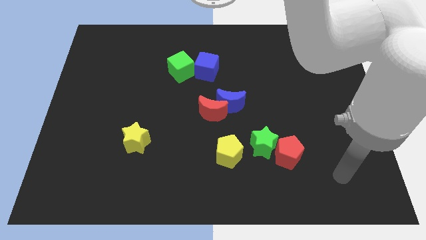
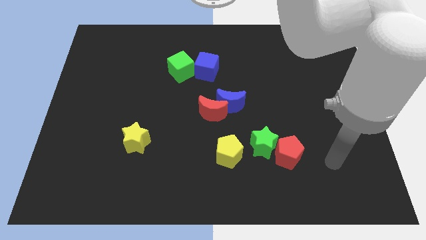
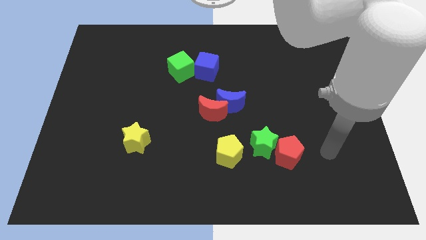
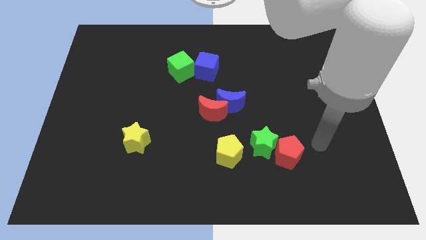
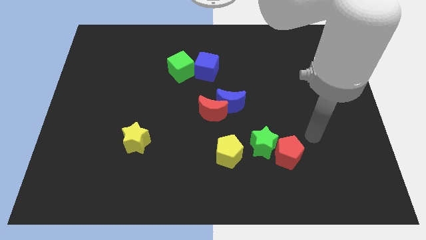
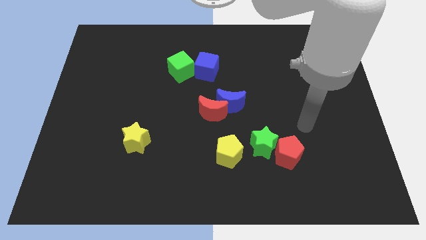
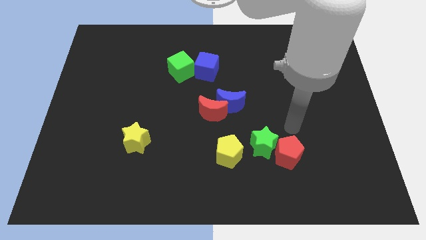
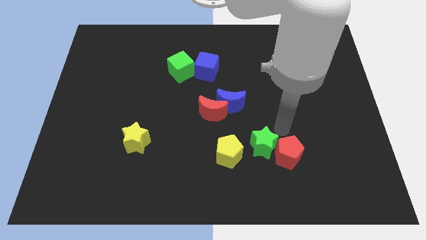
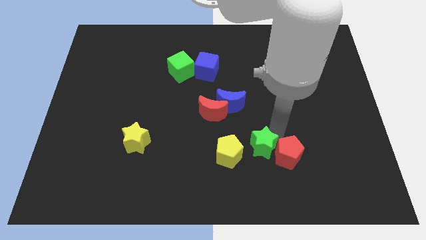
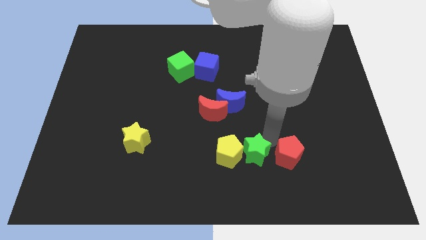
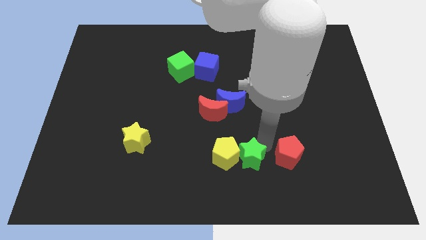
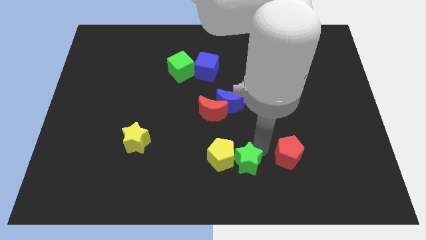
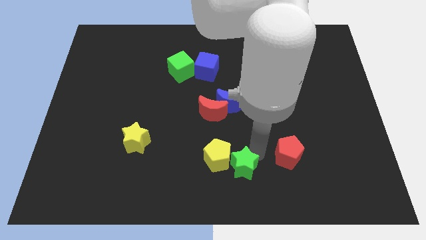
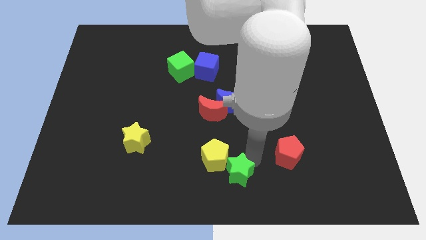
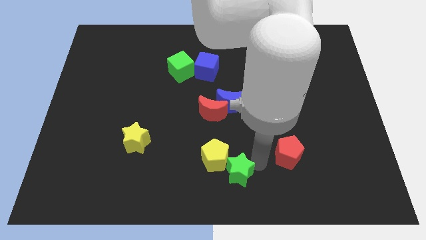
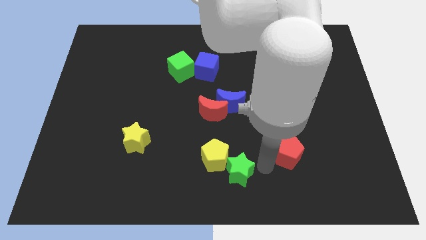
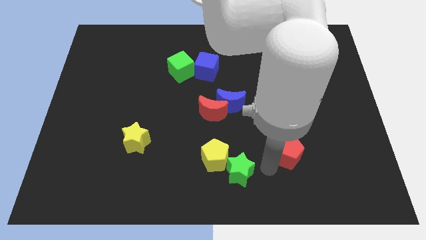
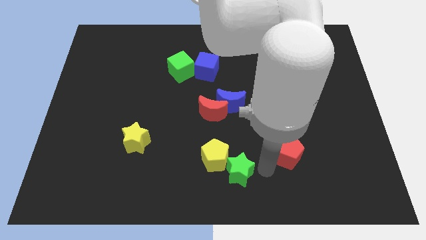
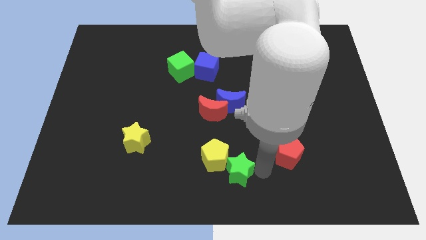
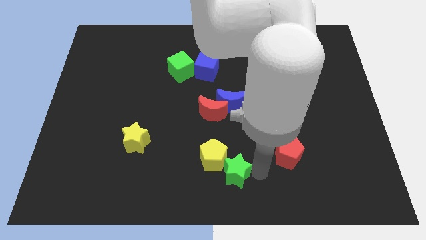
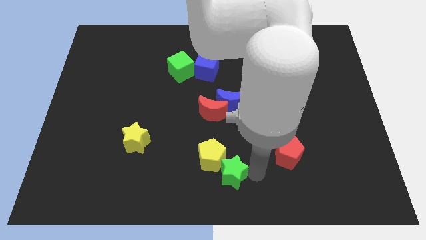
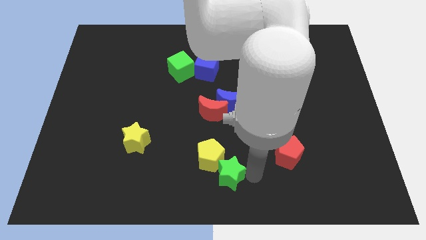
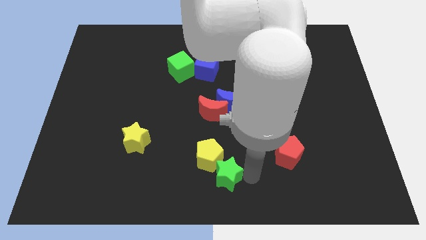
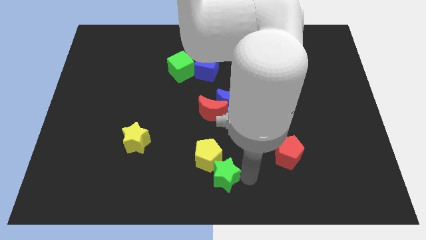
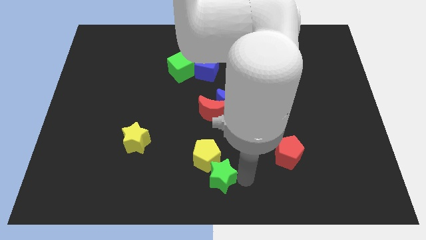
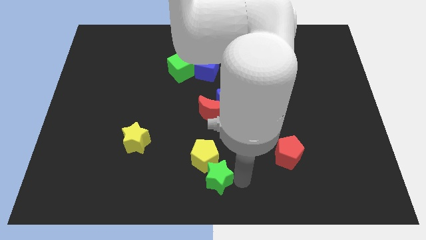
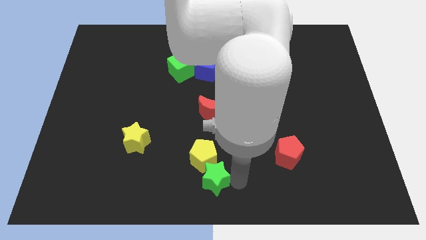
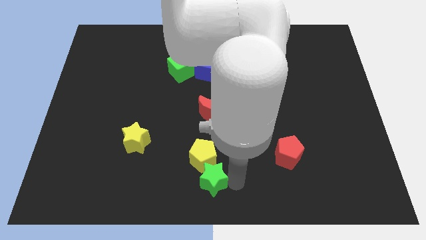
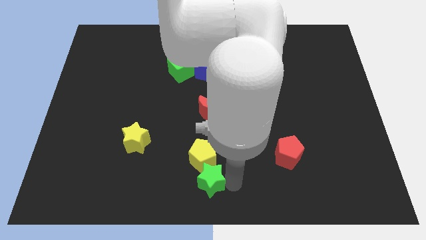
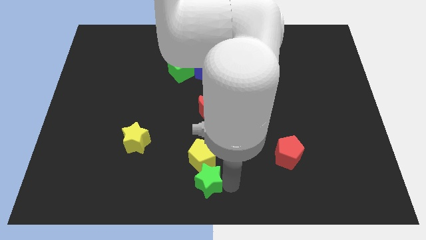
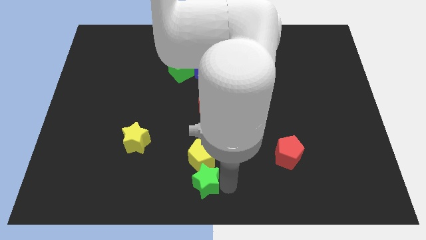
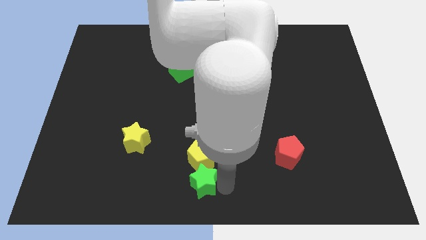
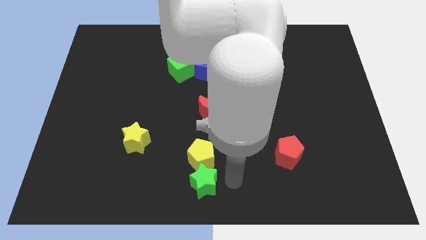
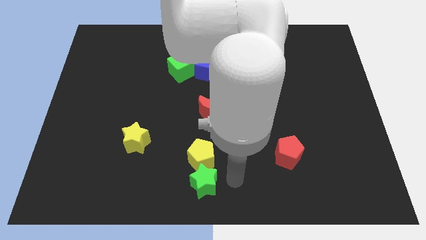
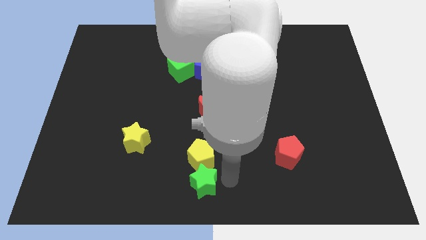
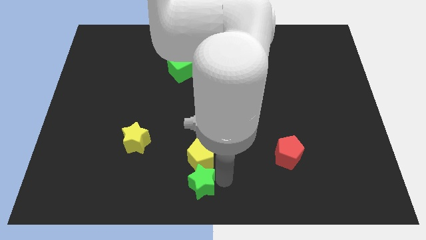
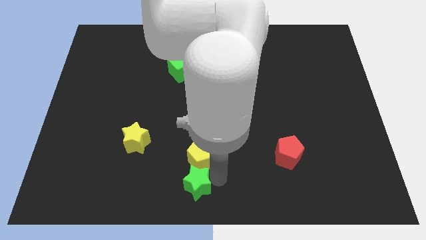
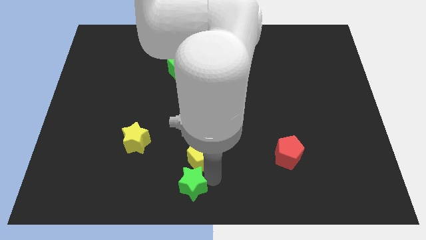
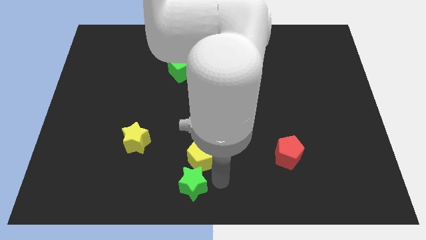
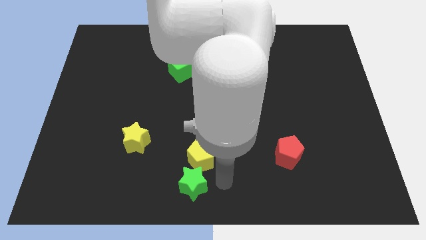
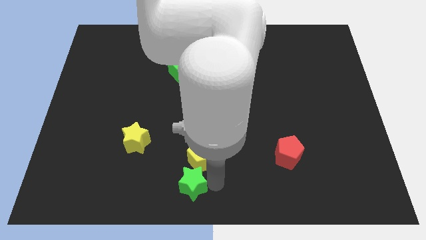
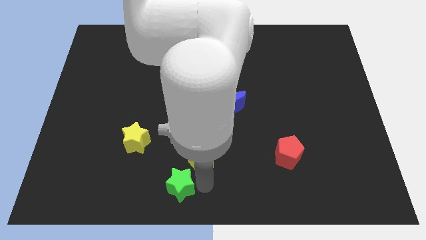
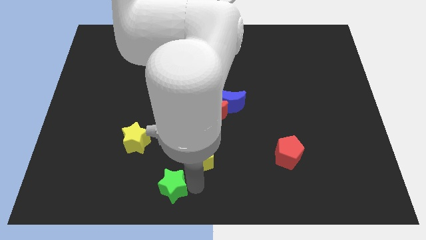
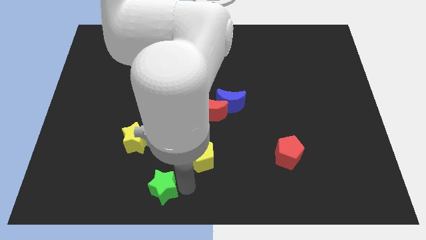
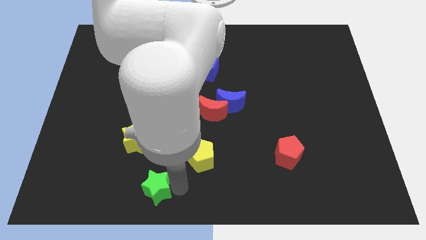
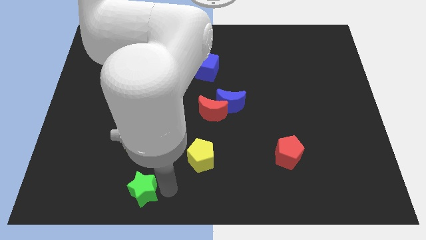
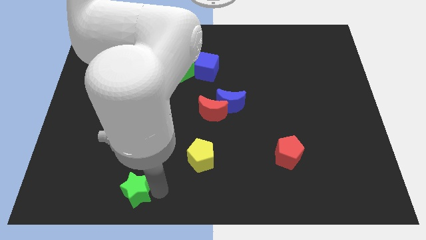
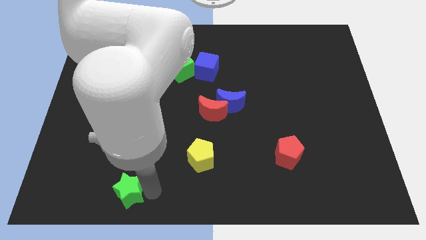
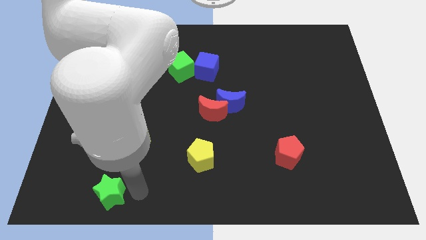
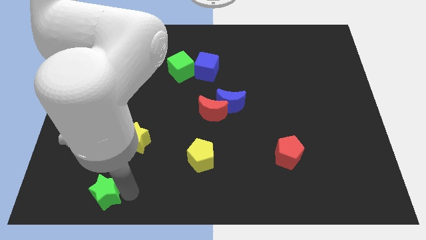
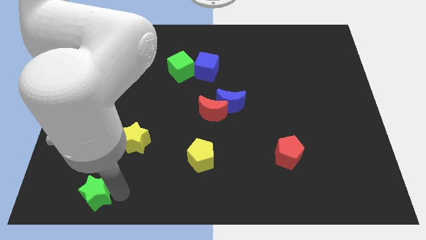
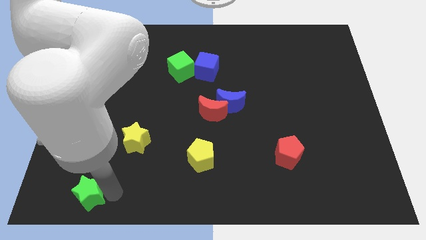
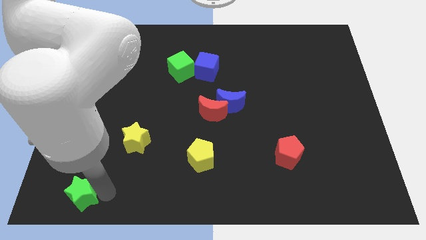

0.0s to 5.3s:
move the green star to the lower left corner
